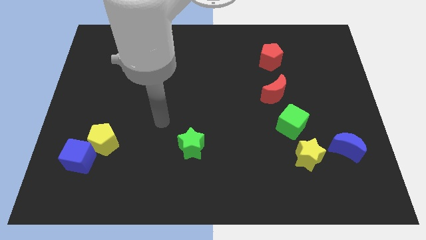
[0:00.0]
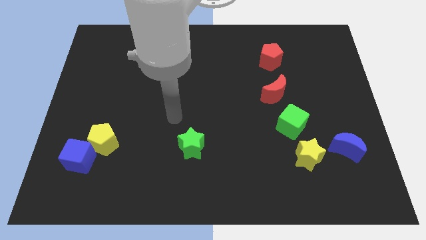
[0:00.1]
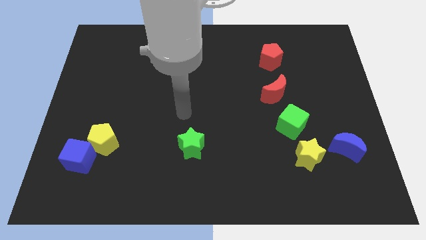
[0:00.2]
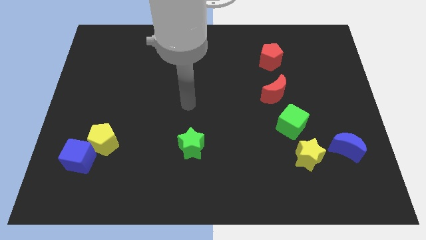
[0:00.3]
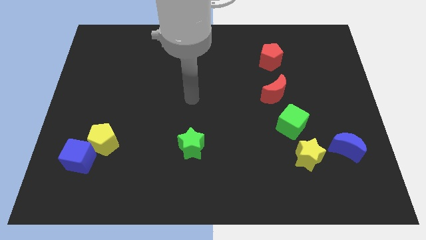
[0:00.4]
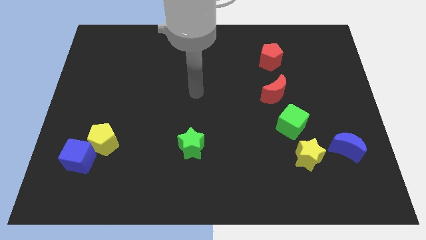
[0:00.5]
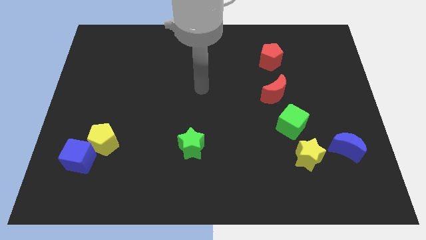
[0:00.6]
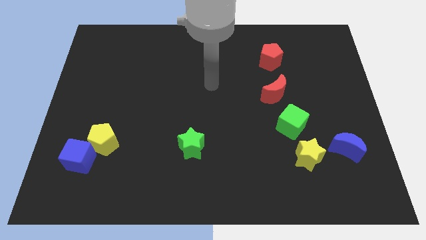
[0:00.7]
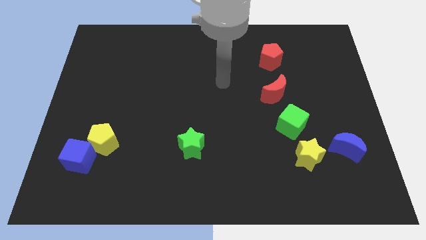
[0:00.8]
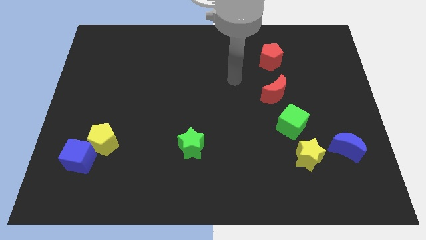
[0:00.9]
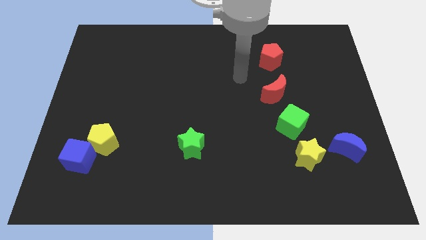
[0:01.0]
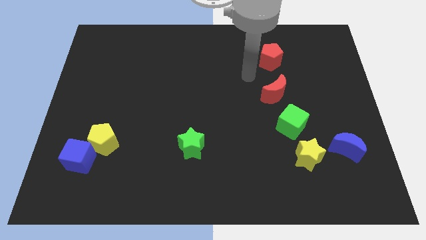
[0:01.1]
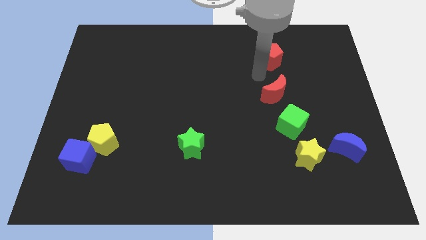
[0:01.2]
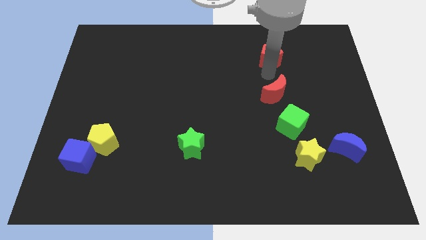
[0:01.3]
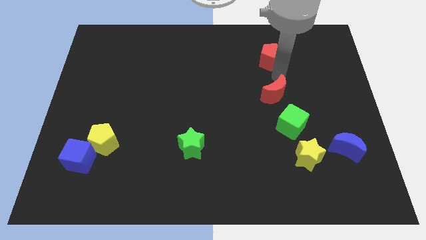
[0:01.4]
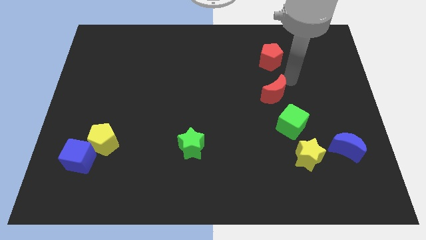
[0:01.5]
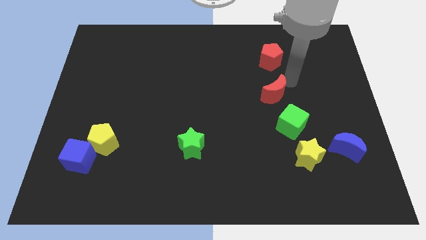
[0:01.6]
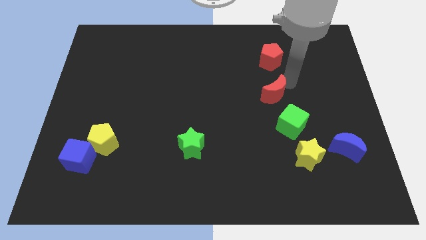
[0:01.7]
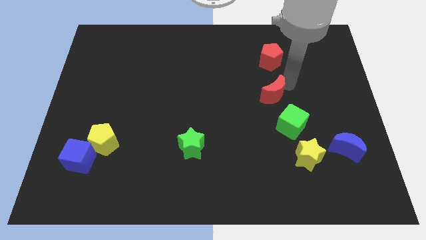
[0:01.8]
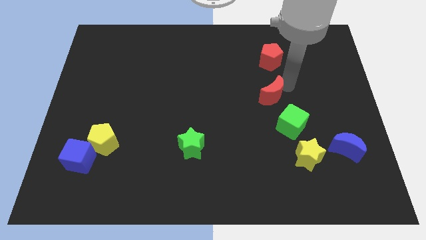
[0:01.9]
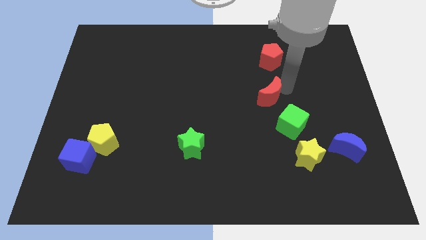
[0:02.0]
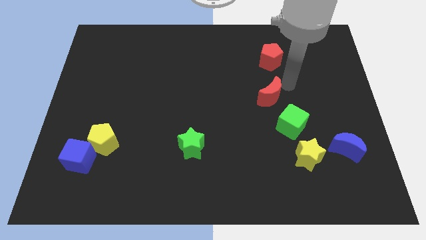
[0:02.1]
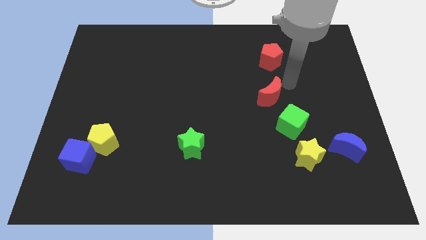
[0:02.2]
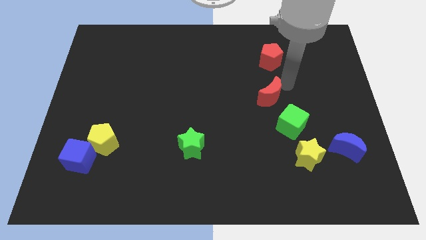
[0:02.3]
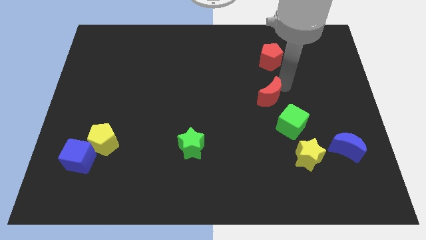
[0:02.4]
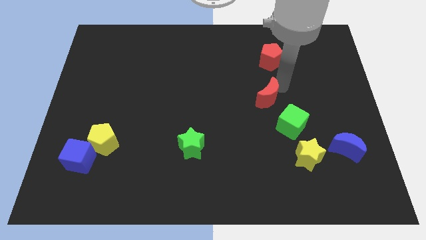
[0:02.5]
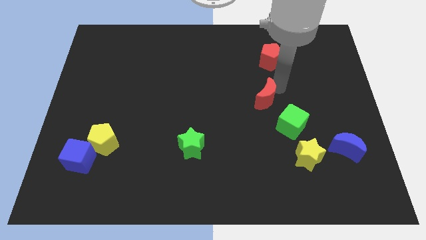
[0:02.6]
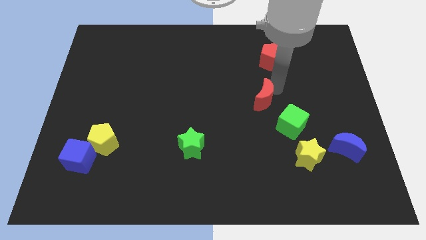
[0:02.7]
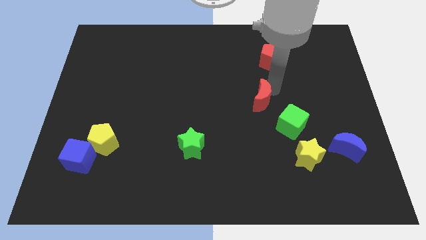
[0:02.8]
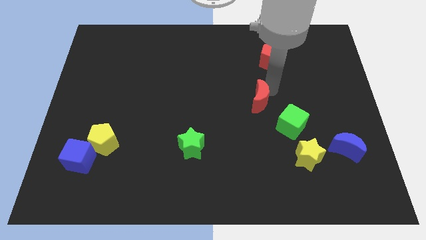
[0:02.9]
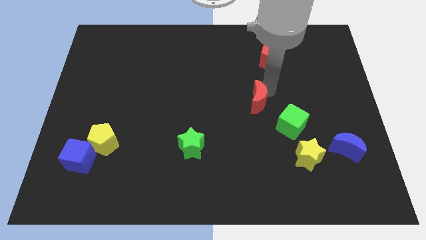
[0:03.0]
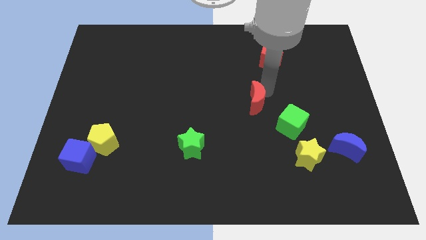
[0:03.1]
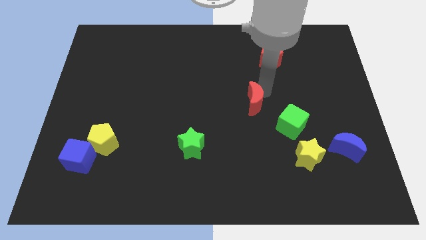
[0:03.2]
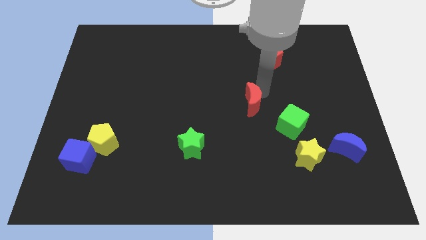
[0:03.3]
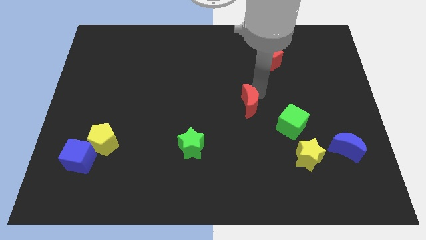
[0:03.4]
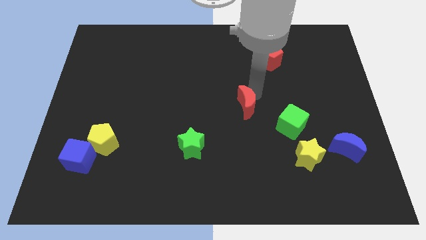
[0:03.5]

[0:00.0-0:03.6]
push the red moon diagonally downwards and left slightly

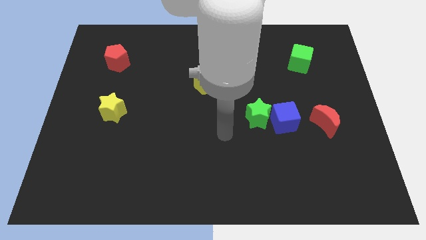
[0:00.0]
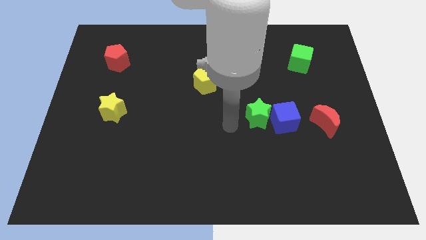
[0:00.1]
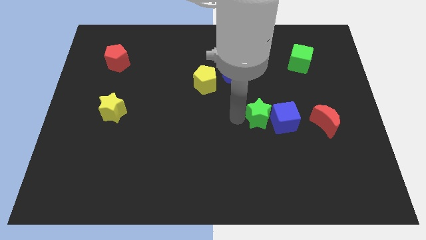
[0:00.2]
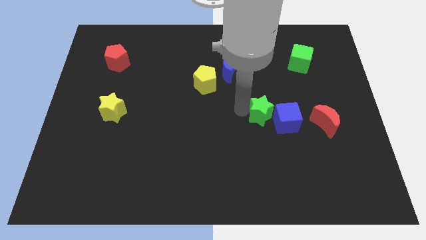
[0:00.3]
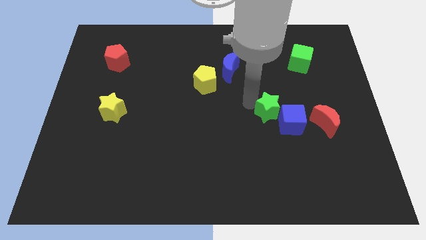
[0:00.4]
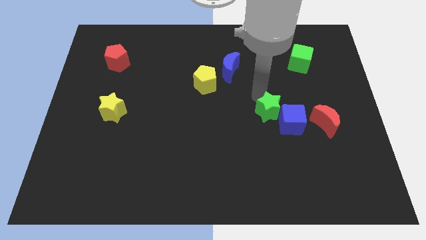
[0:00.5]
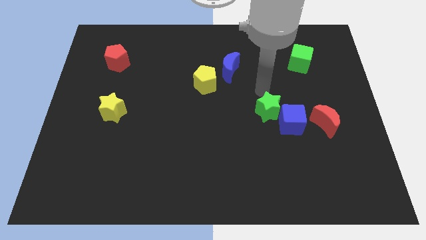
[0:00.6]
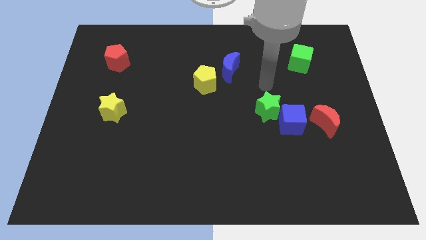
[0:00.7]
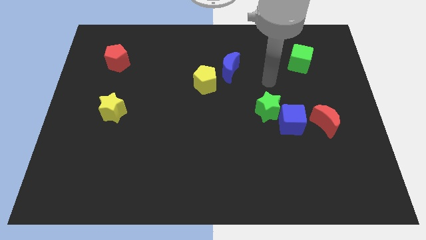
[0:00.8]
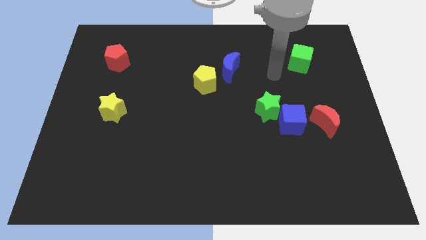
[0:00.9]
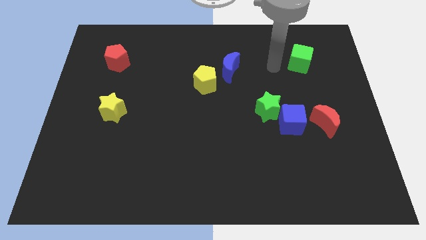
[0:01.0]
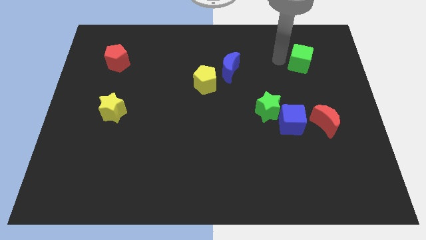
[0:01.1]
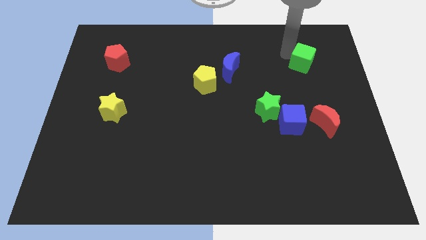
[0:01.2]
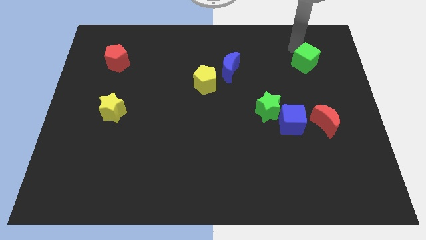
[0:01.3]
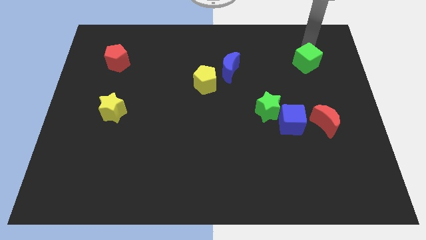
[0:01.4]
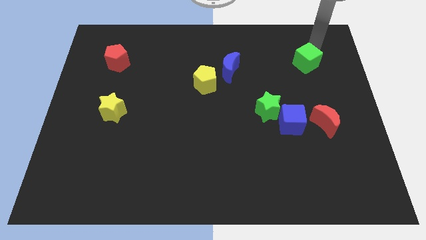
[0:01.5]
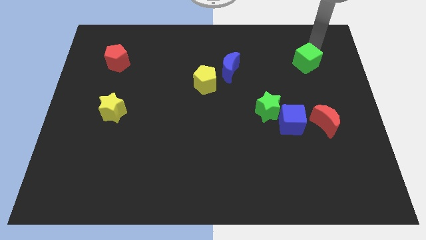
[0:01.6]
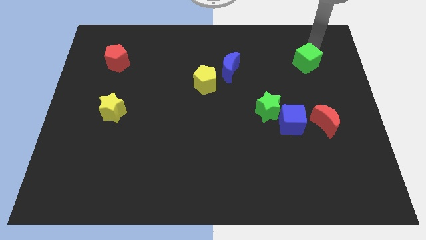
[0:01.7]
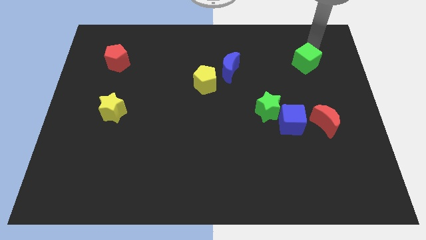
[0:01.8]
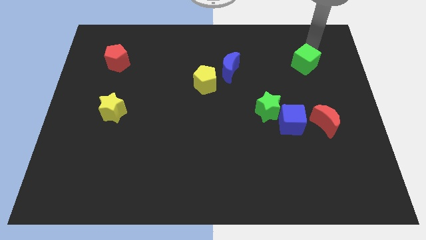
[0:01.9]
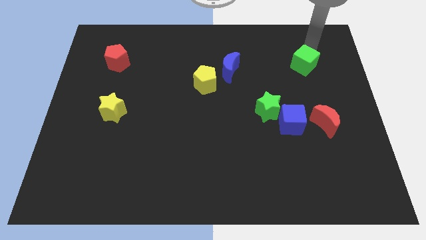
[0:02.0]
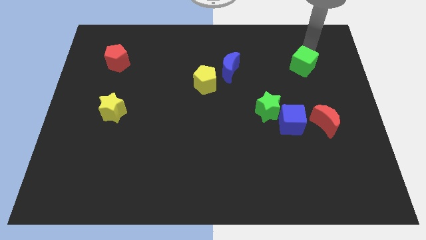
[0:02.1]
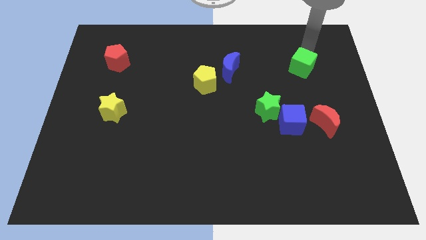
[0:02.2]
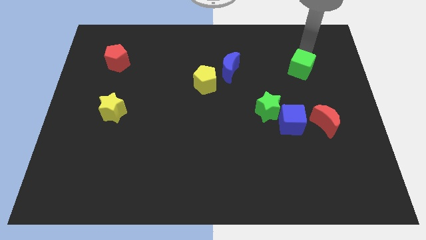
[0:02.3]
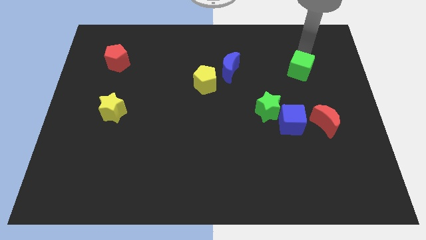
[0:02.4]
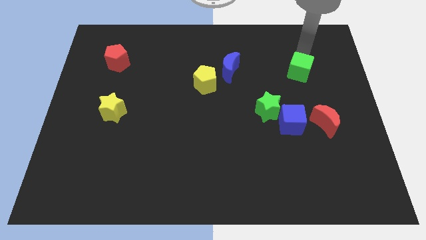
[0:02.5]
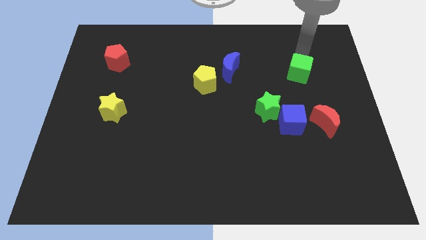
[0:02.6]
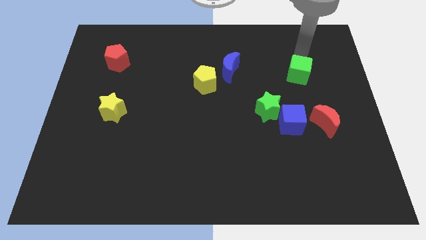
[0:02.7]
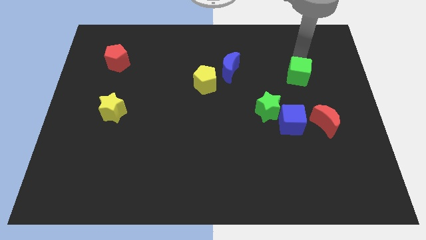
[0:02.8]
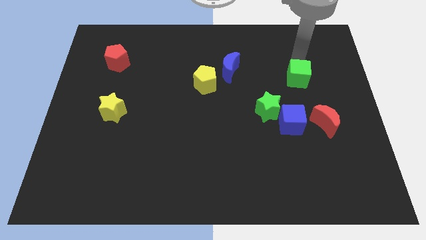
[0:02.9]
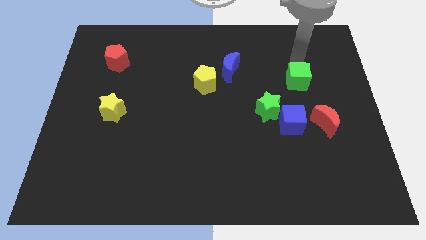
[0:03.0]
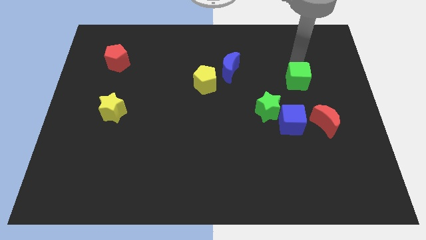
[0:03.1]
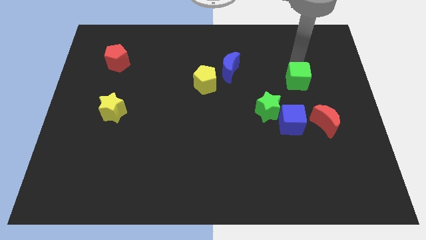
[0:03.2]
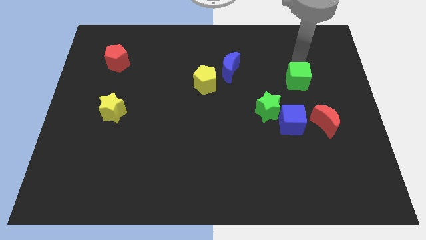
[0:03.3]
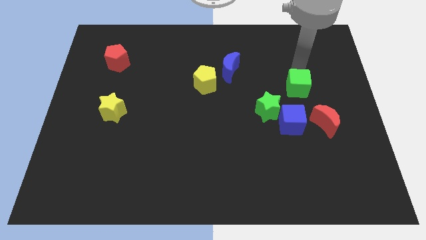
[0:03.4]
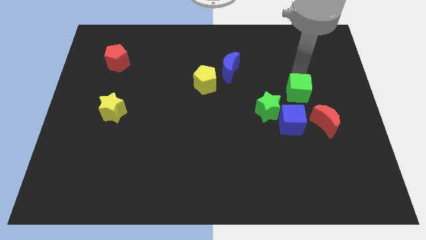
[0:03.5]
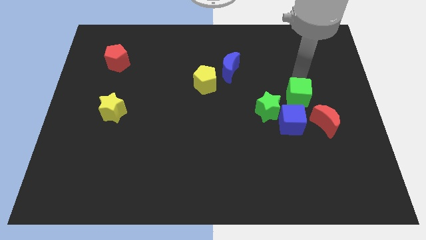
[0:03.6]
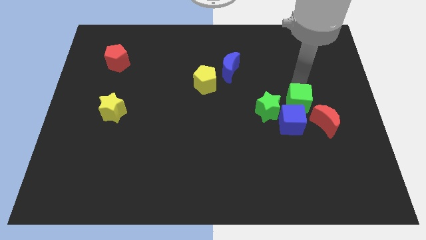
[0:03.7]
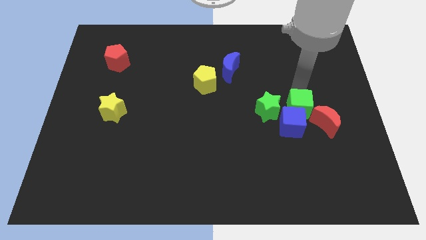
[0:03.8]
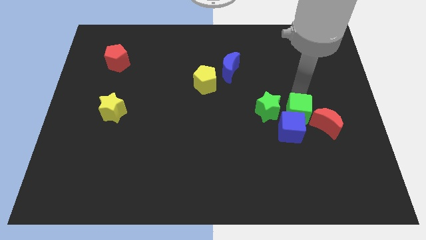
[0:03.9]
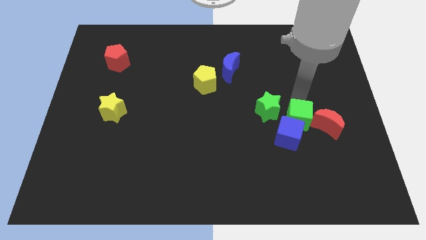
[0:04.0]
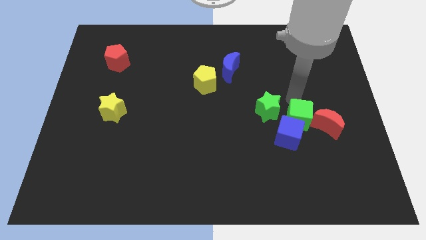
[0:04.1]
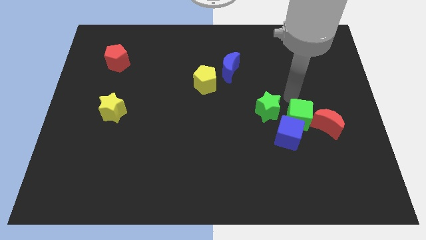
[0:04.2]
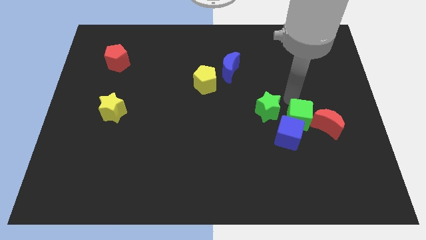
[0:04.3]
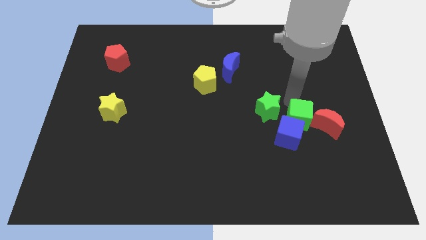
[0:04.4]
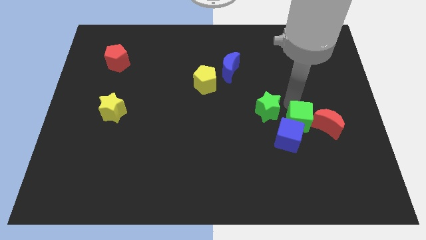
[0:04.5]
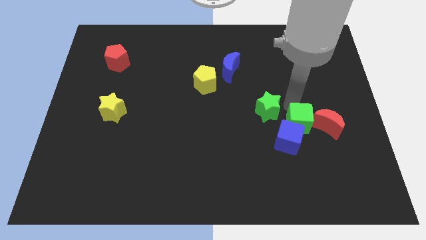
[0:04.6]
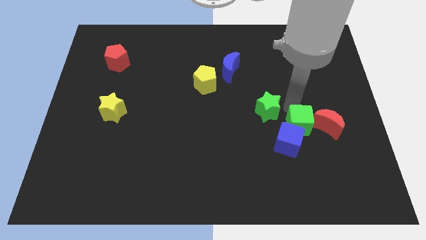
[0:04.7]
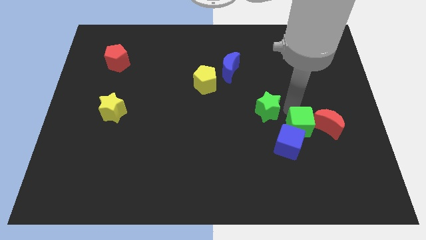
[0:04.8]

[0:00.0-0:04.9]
move the green cube down
